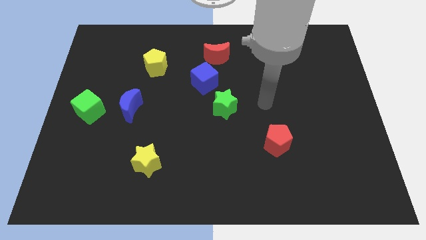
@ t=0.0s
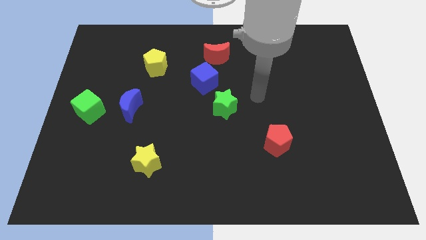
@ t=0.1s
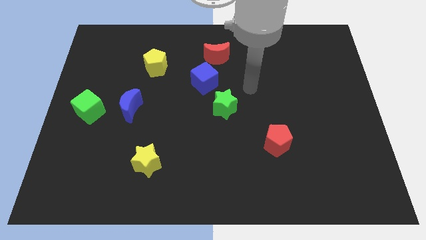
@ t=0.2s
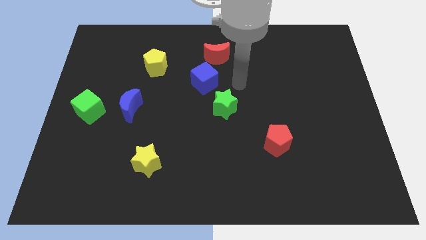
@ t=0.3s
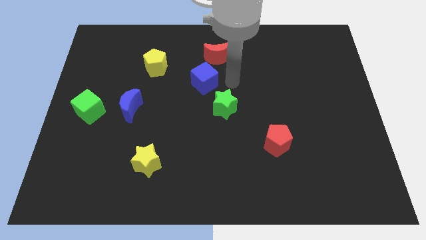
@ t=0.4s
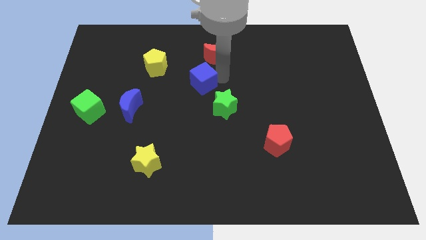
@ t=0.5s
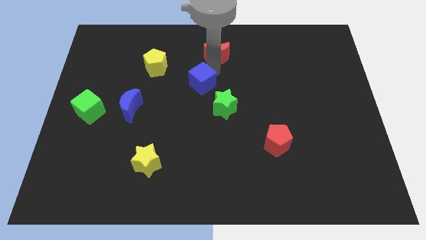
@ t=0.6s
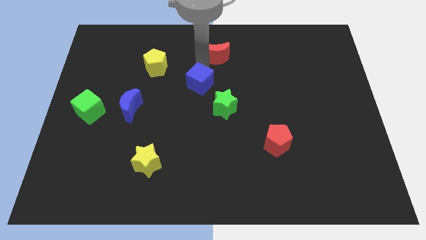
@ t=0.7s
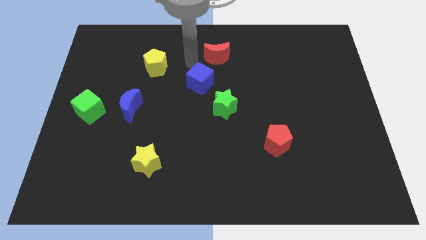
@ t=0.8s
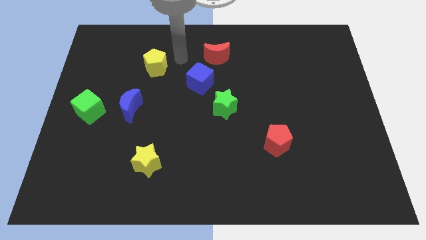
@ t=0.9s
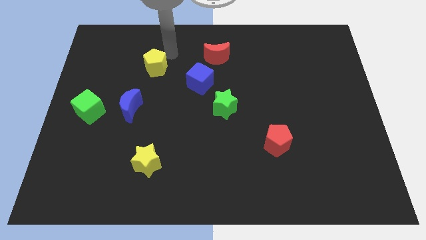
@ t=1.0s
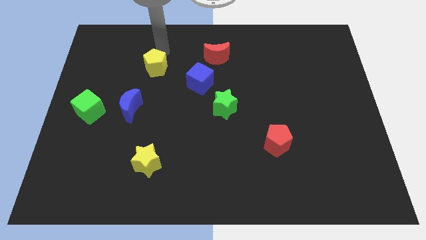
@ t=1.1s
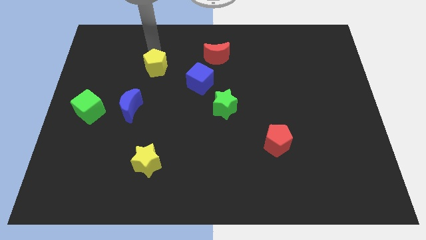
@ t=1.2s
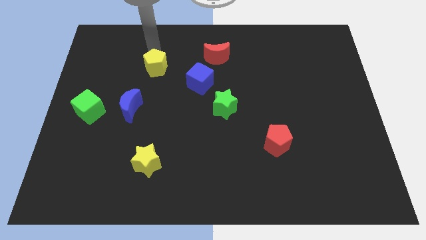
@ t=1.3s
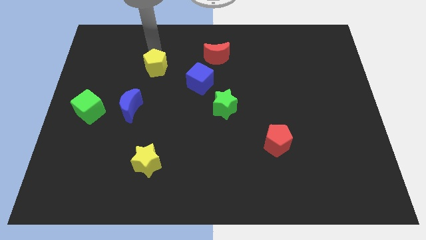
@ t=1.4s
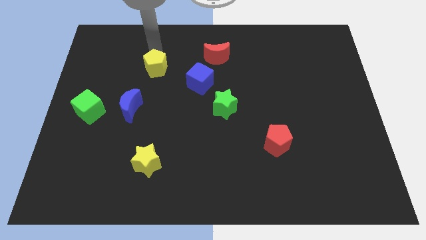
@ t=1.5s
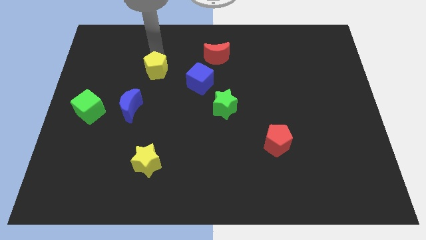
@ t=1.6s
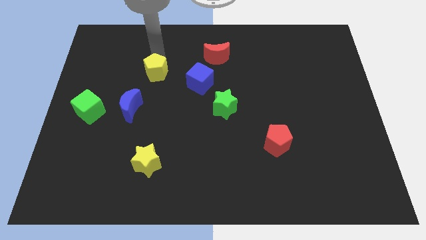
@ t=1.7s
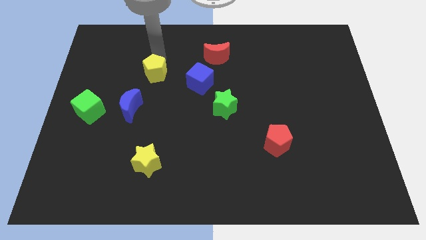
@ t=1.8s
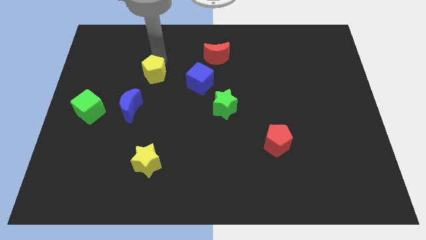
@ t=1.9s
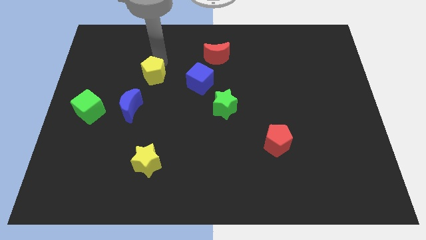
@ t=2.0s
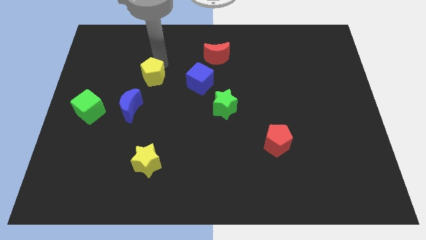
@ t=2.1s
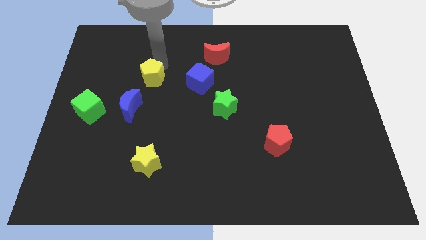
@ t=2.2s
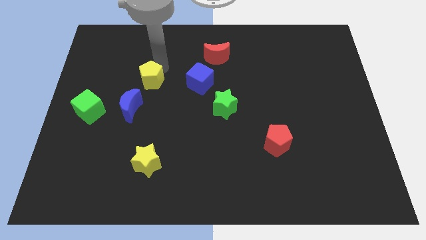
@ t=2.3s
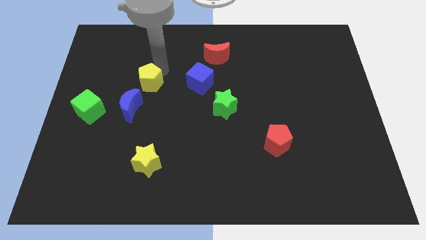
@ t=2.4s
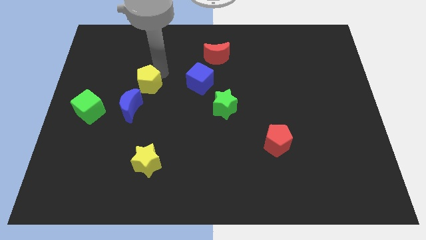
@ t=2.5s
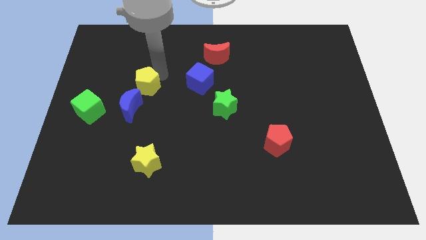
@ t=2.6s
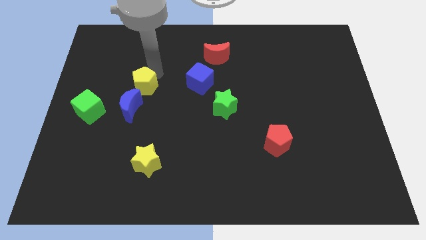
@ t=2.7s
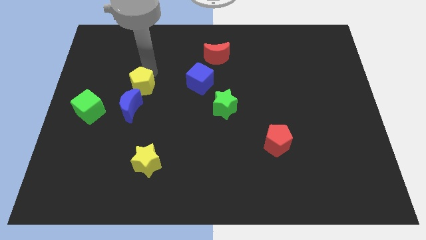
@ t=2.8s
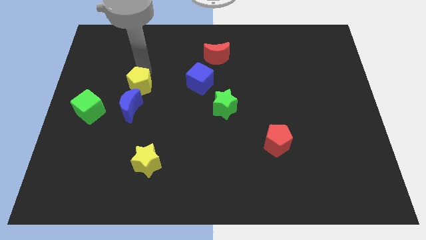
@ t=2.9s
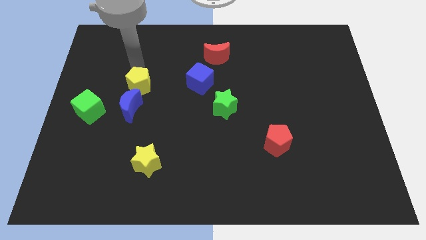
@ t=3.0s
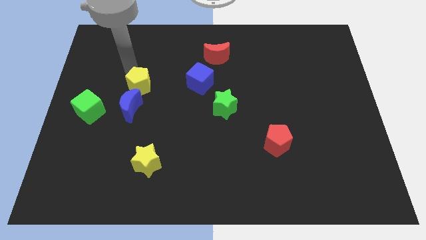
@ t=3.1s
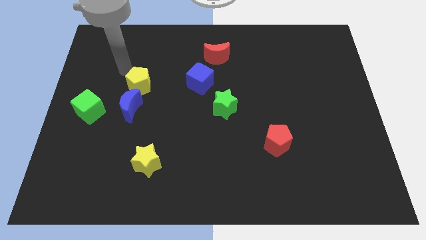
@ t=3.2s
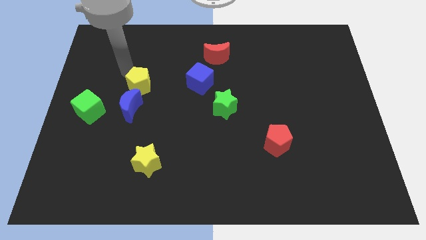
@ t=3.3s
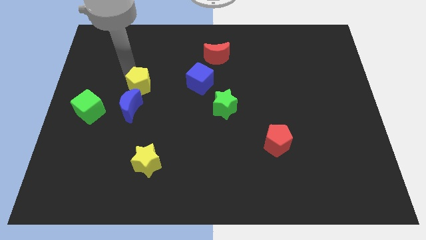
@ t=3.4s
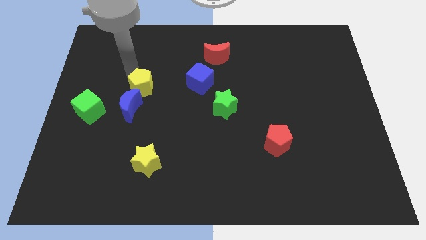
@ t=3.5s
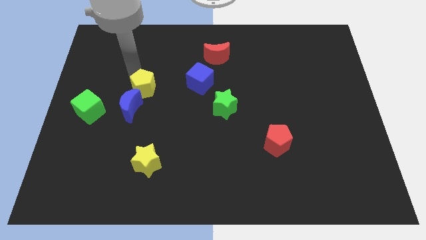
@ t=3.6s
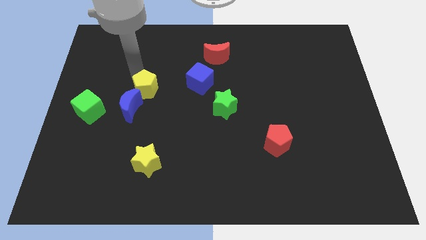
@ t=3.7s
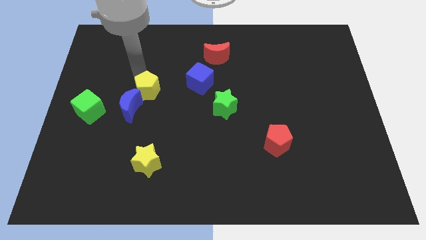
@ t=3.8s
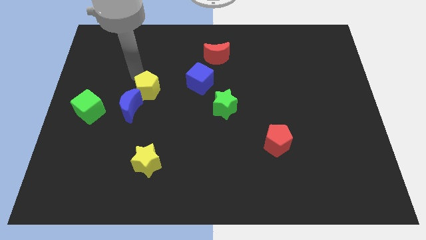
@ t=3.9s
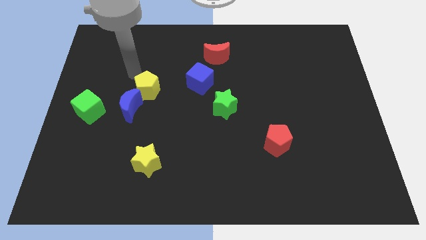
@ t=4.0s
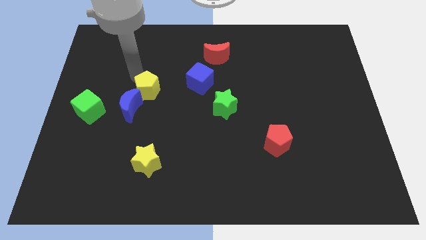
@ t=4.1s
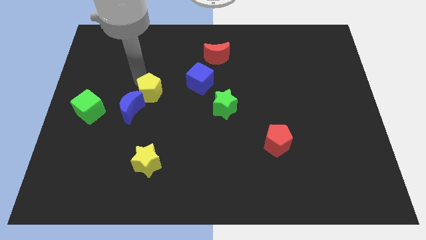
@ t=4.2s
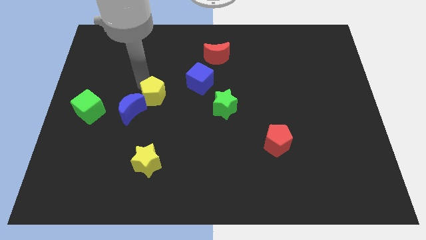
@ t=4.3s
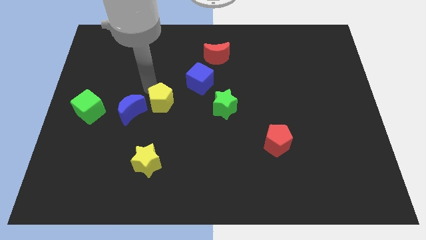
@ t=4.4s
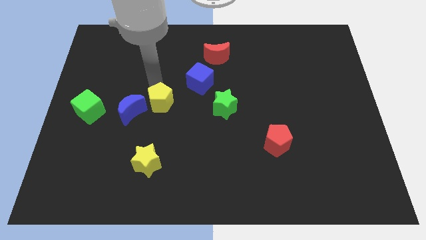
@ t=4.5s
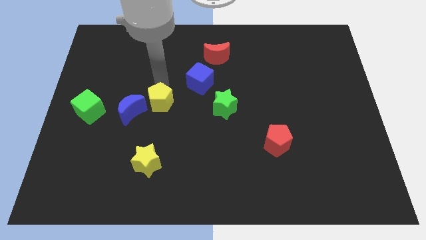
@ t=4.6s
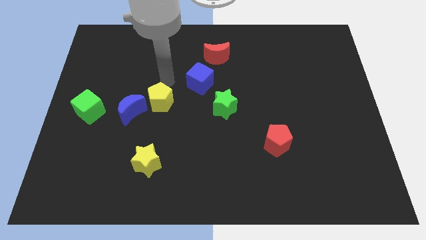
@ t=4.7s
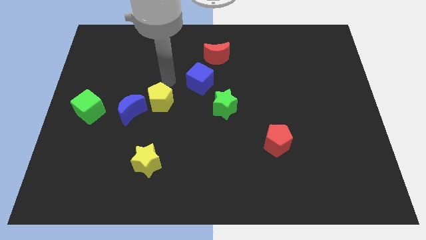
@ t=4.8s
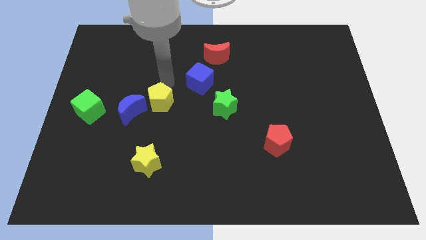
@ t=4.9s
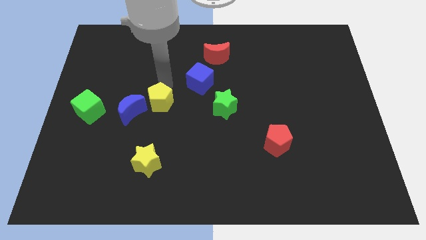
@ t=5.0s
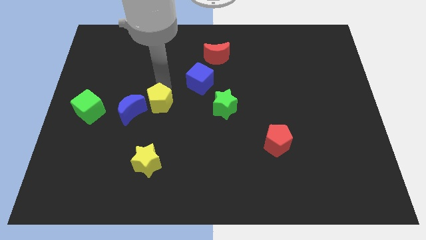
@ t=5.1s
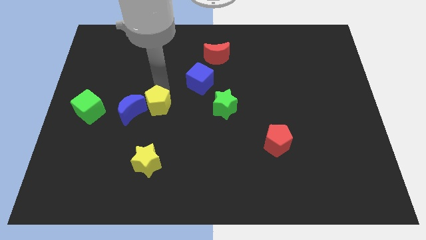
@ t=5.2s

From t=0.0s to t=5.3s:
move the yellow pentagon above the yellow star

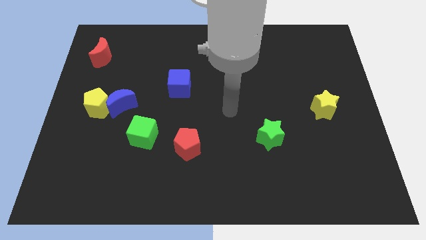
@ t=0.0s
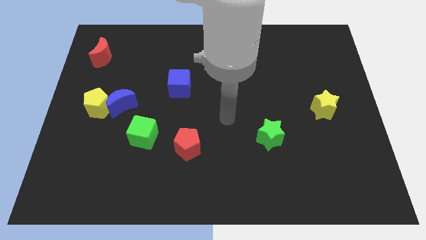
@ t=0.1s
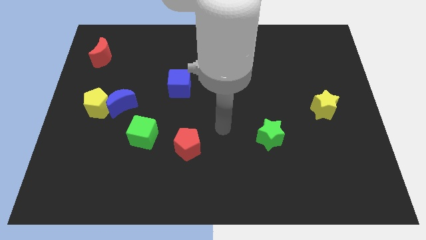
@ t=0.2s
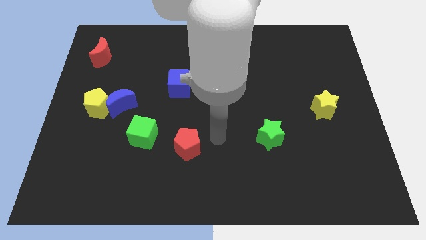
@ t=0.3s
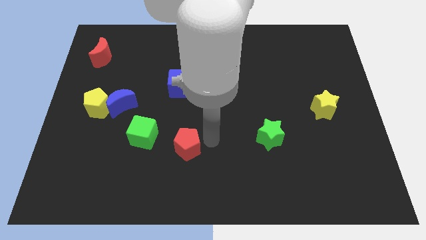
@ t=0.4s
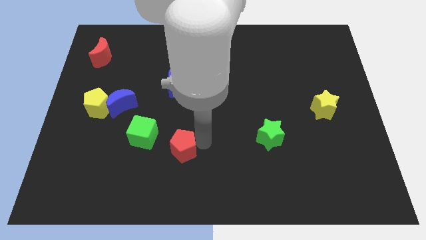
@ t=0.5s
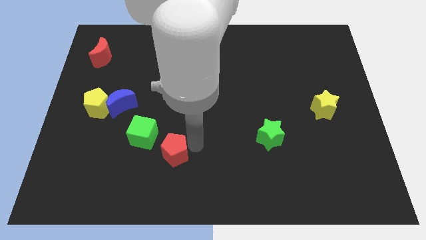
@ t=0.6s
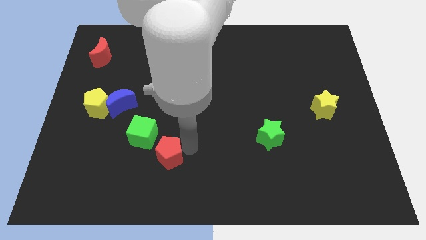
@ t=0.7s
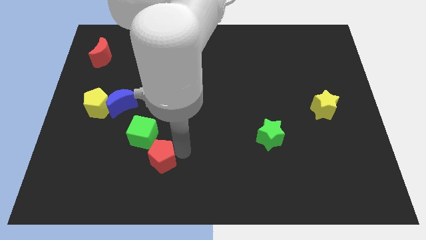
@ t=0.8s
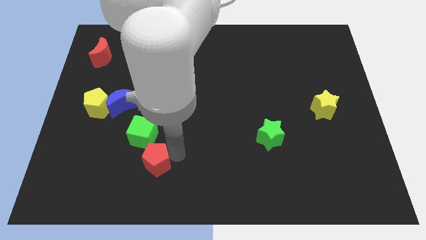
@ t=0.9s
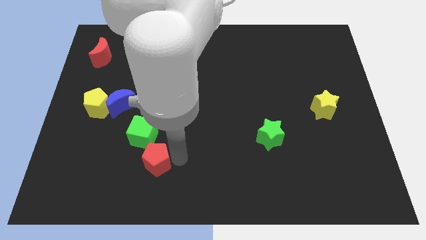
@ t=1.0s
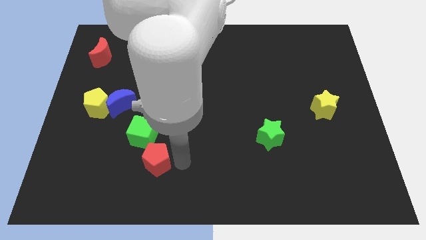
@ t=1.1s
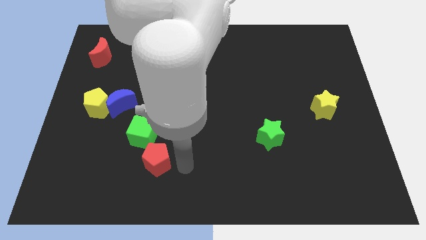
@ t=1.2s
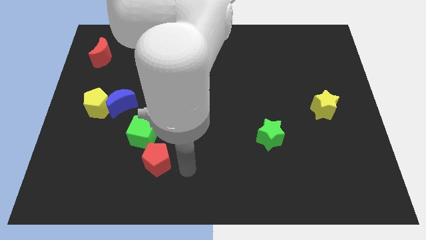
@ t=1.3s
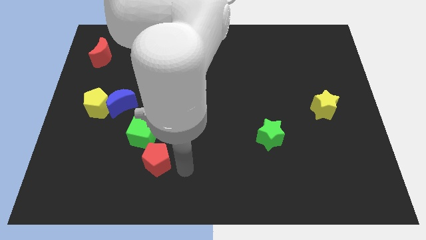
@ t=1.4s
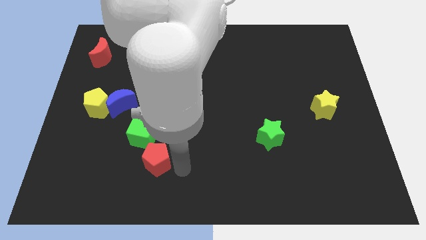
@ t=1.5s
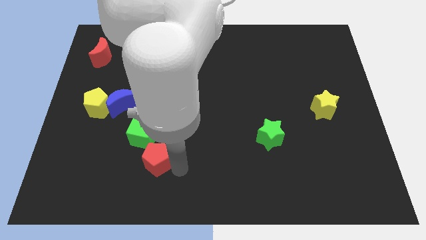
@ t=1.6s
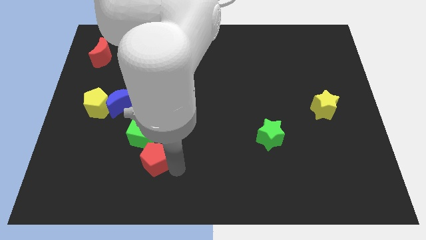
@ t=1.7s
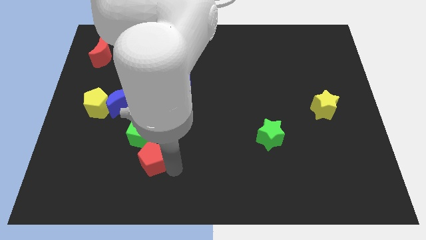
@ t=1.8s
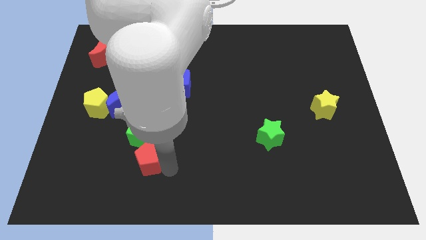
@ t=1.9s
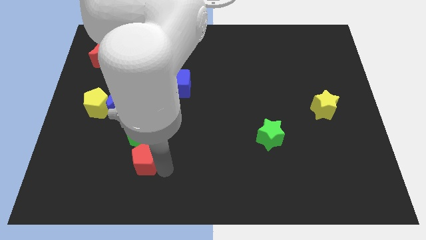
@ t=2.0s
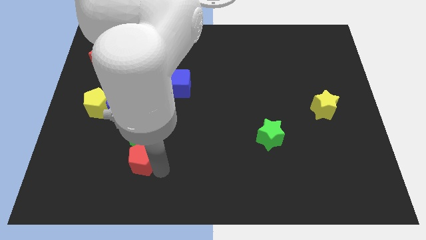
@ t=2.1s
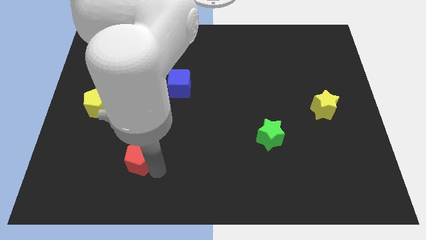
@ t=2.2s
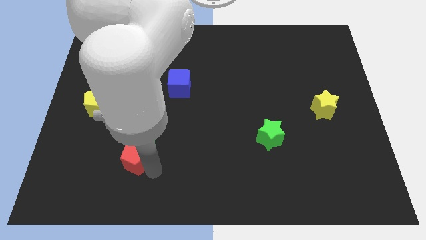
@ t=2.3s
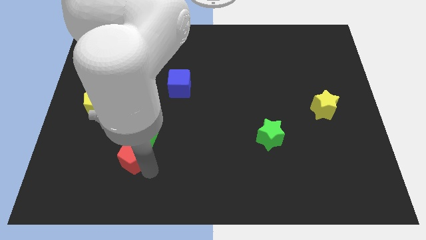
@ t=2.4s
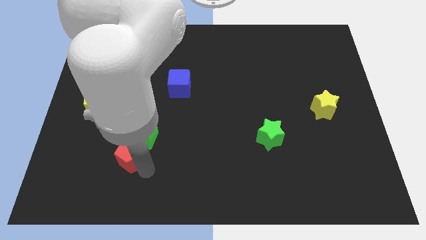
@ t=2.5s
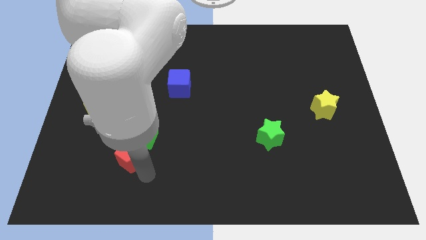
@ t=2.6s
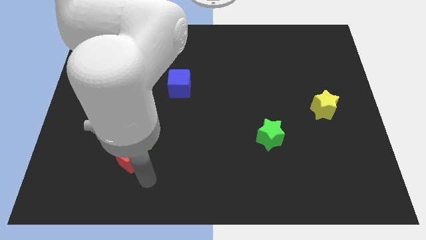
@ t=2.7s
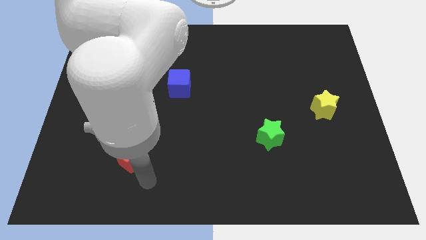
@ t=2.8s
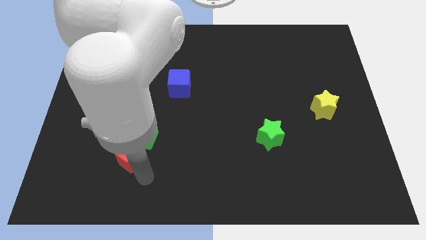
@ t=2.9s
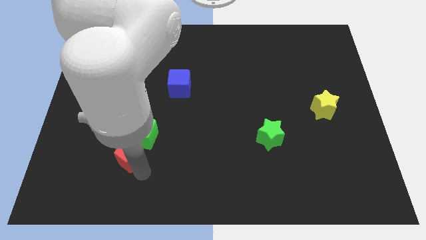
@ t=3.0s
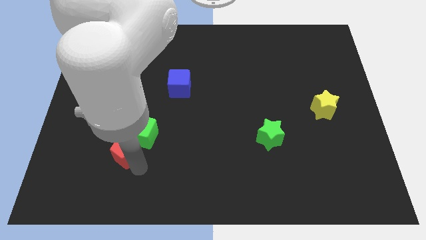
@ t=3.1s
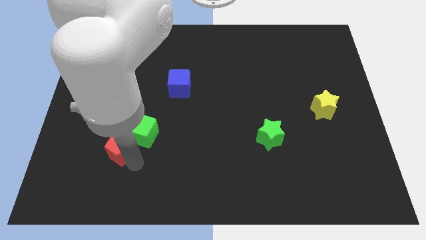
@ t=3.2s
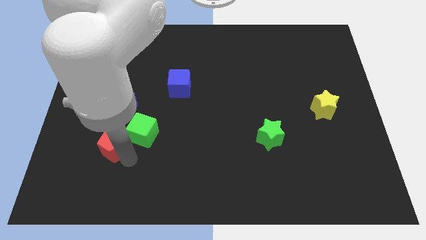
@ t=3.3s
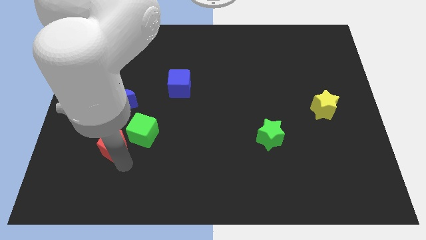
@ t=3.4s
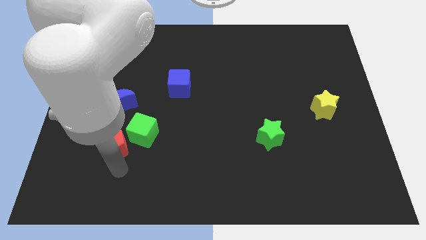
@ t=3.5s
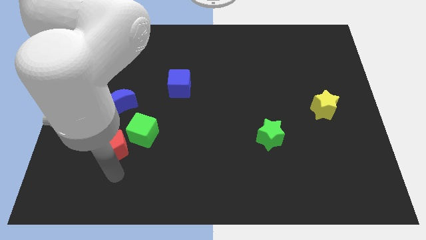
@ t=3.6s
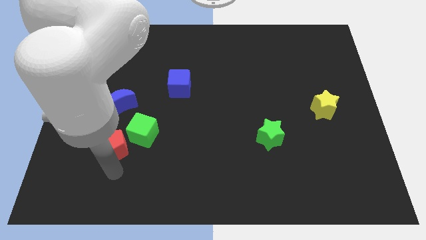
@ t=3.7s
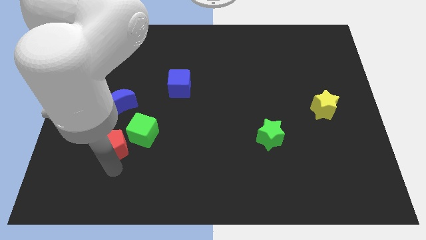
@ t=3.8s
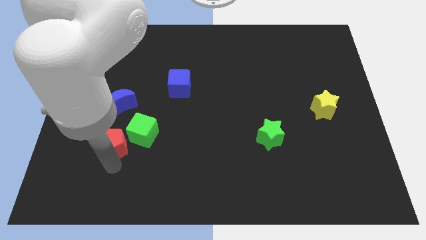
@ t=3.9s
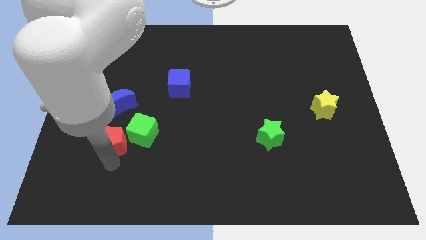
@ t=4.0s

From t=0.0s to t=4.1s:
put the red pentagon to the bottom right of the yellow pentagon
